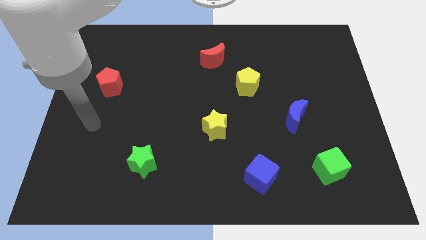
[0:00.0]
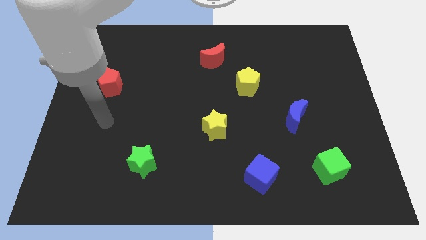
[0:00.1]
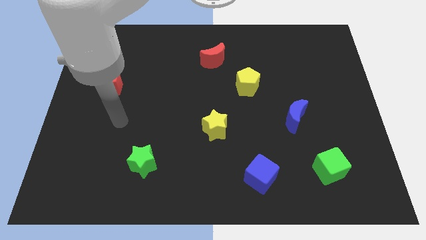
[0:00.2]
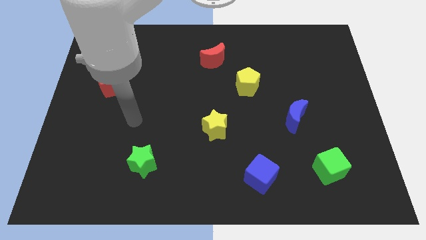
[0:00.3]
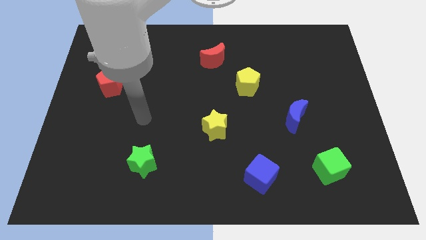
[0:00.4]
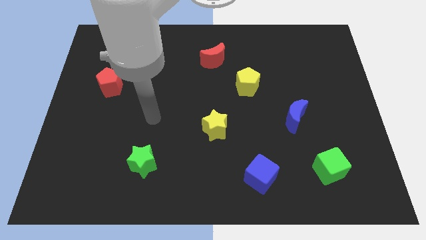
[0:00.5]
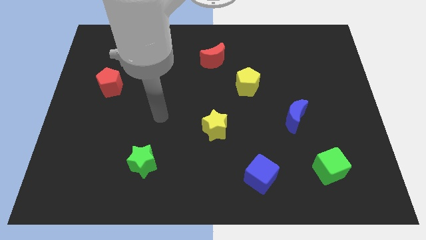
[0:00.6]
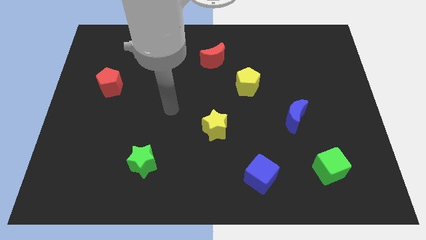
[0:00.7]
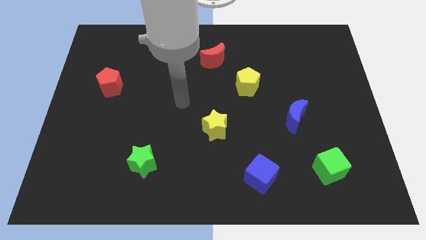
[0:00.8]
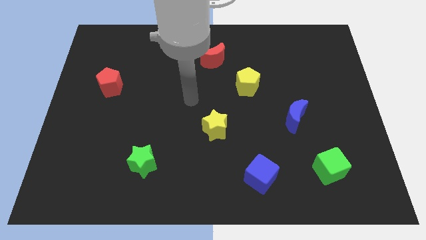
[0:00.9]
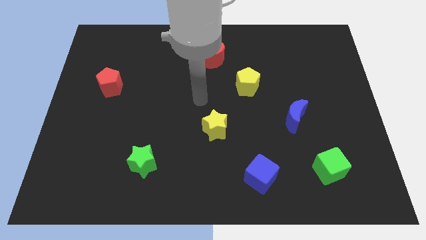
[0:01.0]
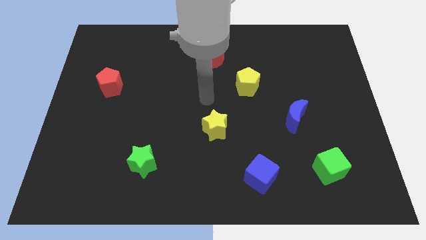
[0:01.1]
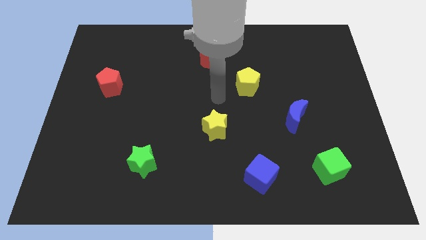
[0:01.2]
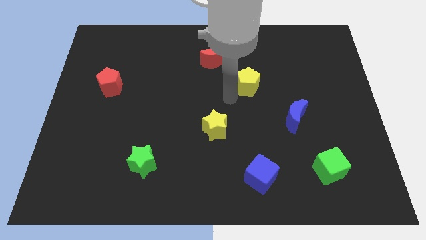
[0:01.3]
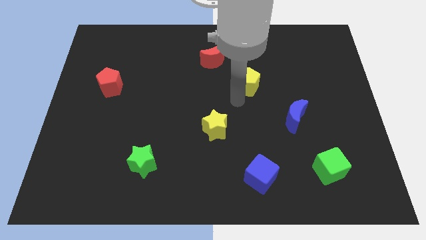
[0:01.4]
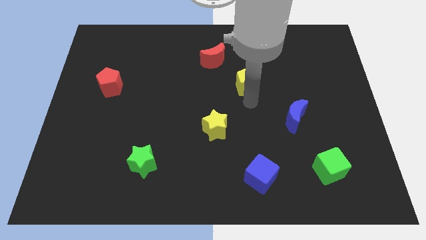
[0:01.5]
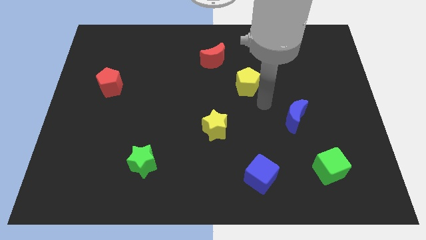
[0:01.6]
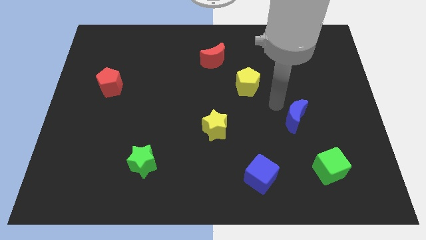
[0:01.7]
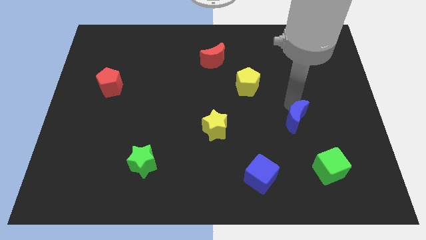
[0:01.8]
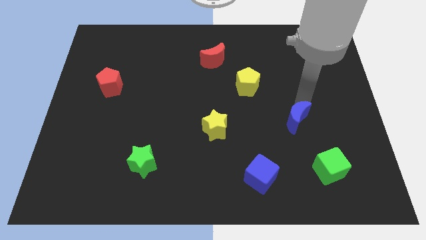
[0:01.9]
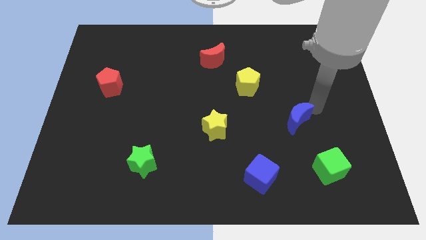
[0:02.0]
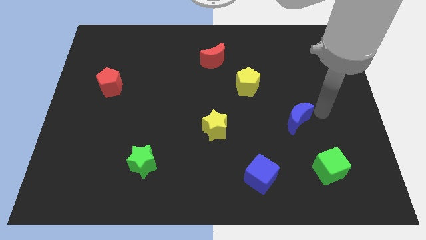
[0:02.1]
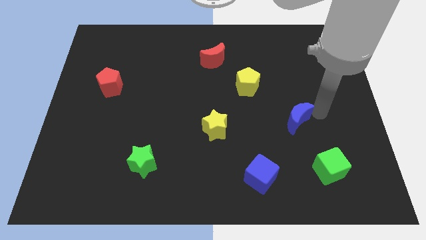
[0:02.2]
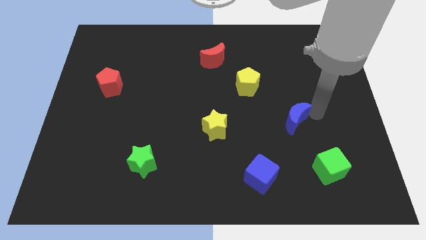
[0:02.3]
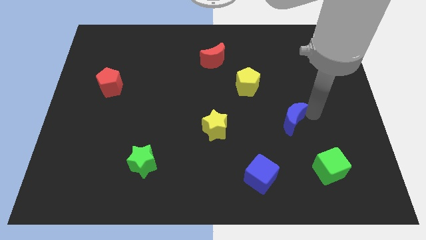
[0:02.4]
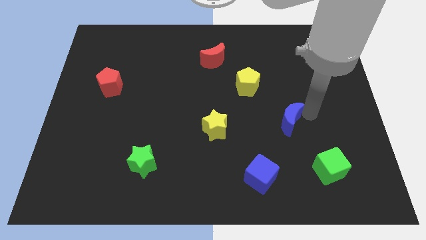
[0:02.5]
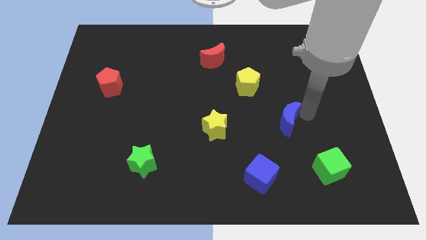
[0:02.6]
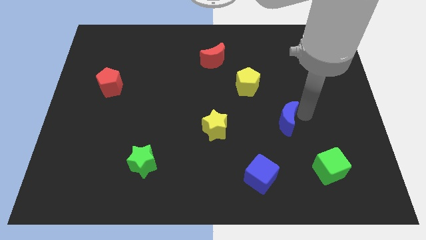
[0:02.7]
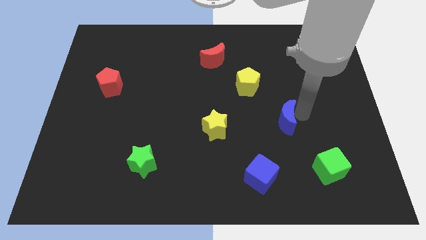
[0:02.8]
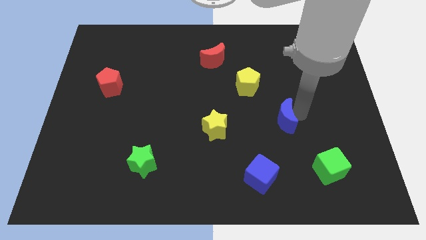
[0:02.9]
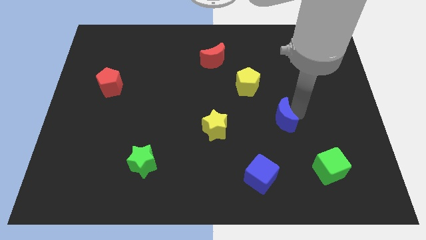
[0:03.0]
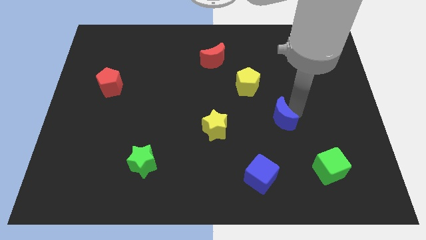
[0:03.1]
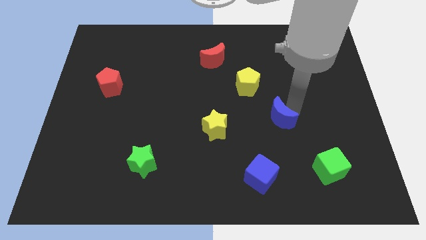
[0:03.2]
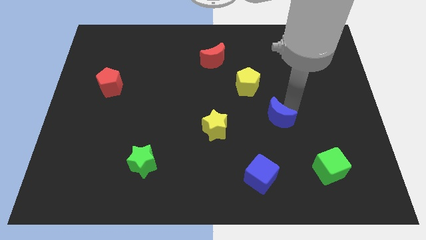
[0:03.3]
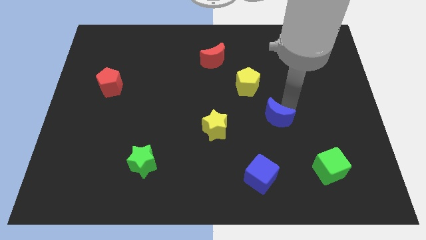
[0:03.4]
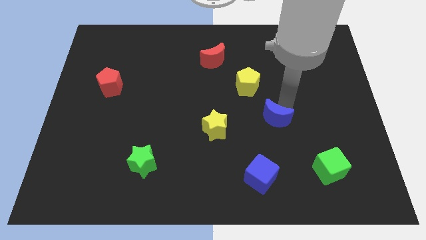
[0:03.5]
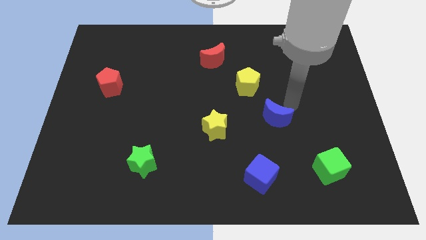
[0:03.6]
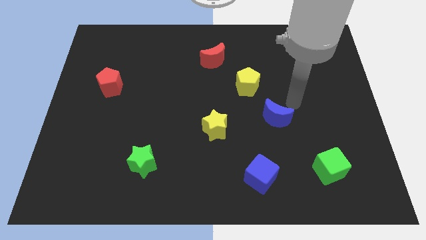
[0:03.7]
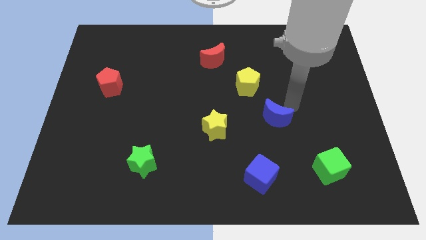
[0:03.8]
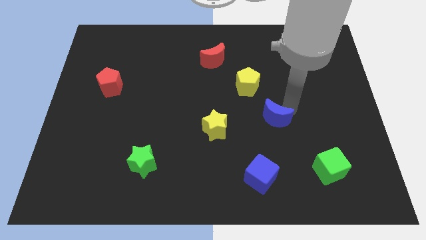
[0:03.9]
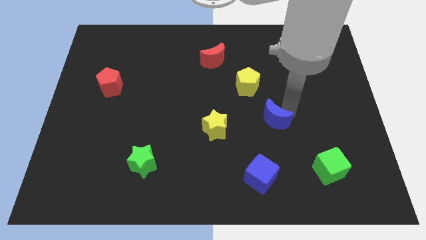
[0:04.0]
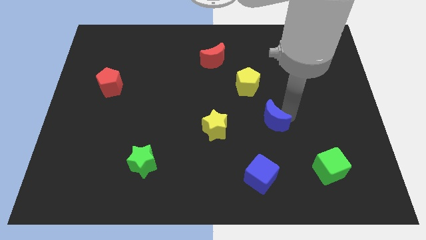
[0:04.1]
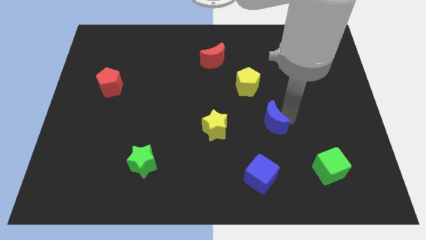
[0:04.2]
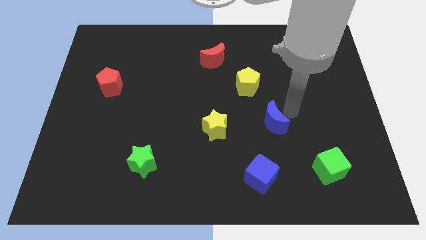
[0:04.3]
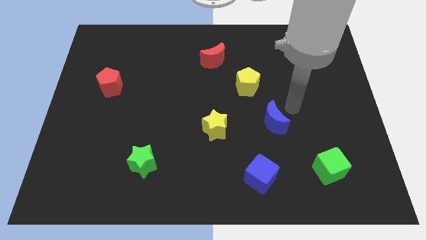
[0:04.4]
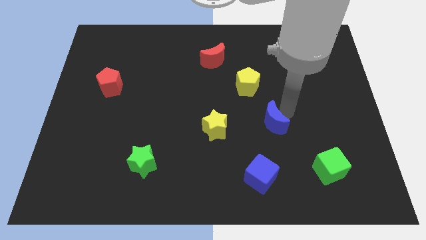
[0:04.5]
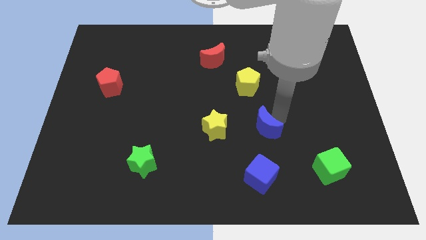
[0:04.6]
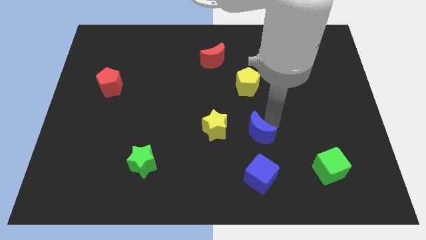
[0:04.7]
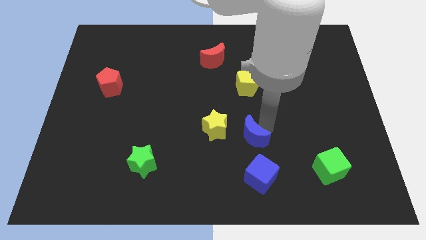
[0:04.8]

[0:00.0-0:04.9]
push the blue moon diagonally down and to the right of the yellow star

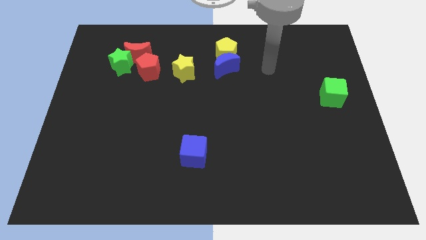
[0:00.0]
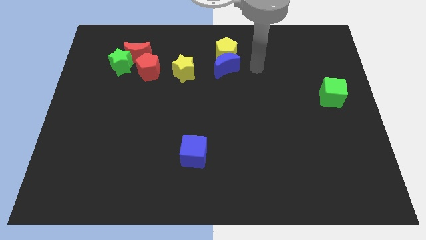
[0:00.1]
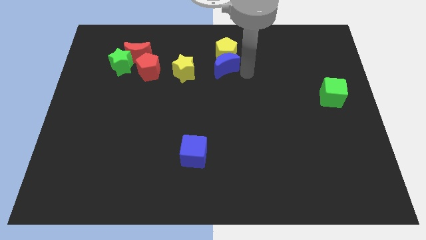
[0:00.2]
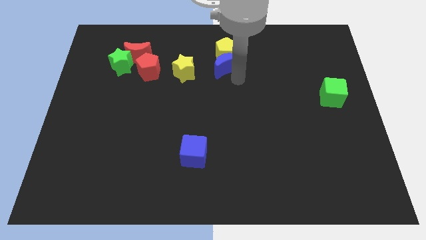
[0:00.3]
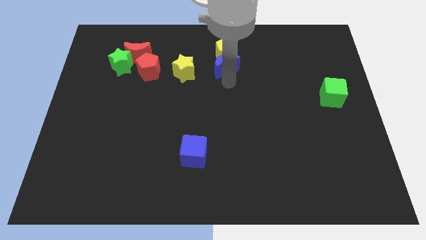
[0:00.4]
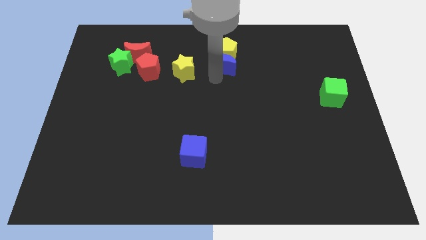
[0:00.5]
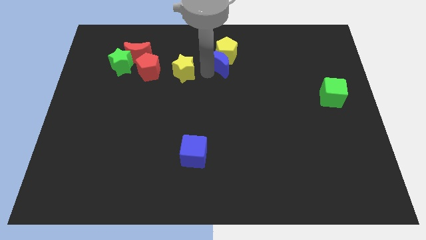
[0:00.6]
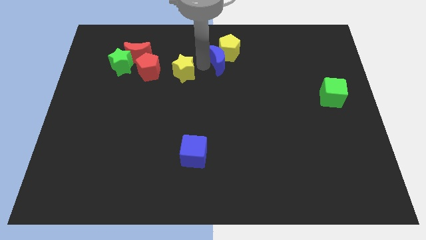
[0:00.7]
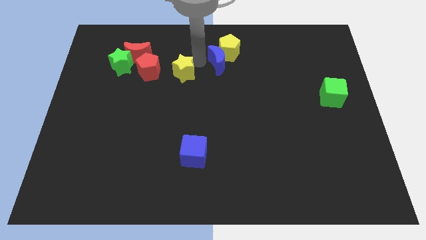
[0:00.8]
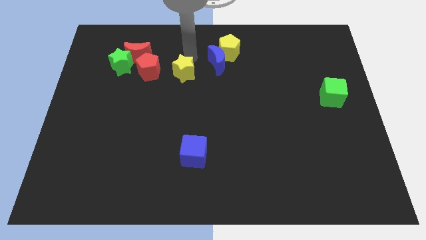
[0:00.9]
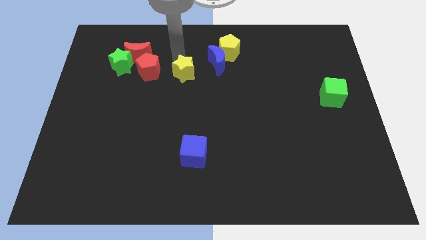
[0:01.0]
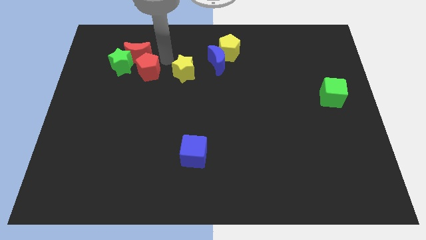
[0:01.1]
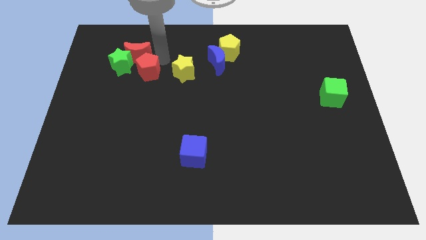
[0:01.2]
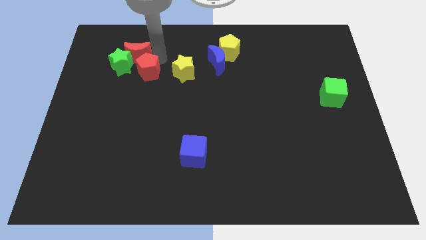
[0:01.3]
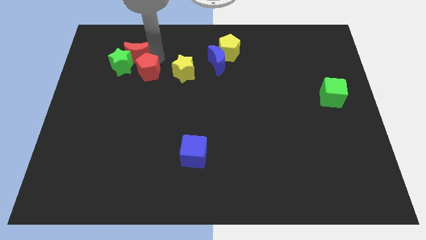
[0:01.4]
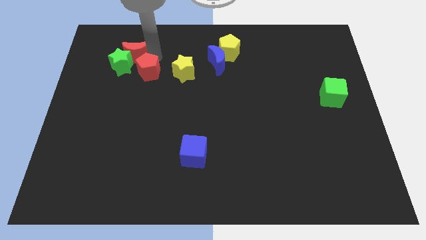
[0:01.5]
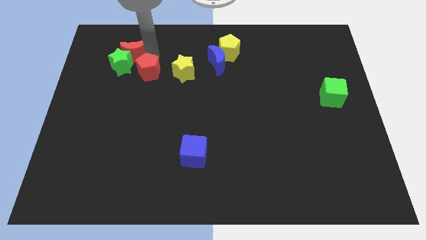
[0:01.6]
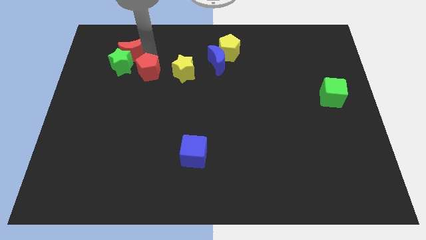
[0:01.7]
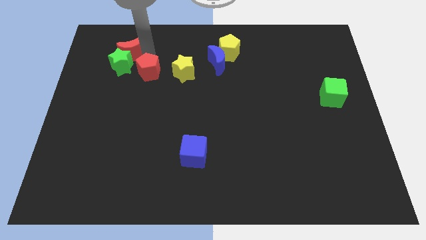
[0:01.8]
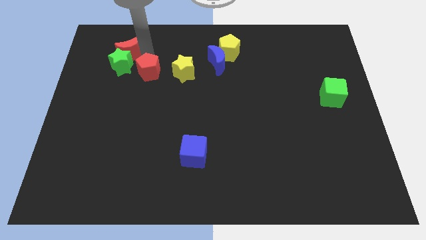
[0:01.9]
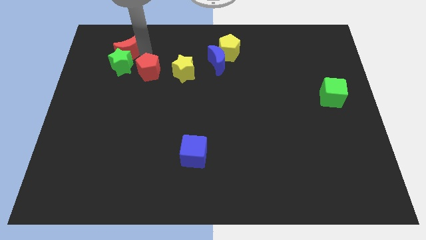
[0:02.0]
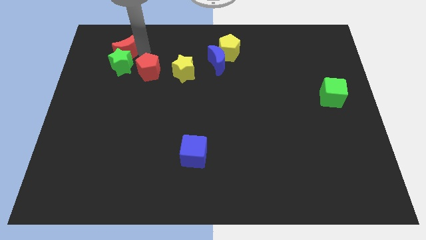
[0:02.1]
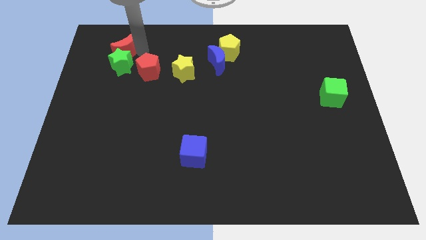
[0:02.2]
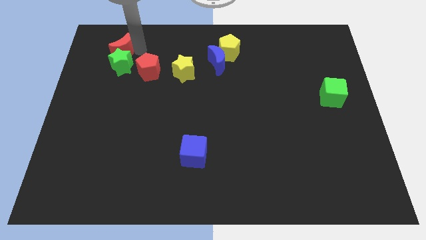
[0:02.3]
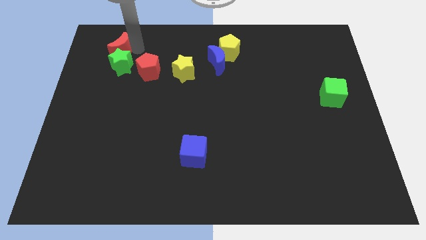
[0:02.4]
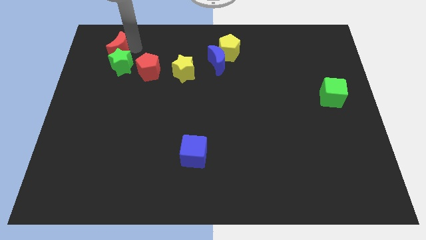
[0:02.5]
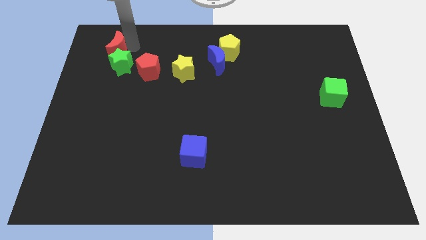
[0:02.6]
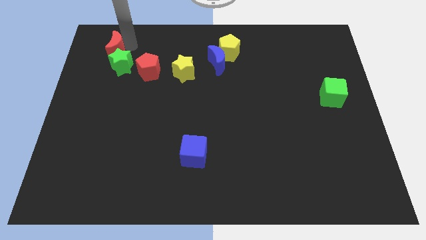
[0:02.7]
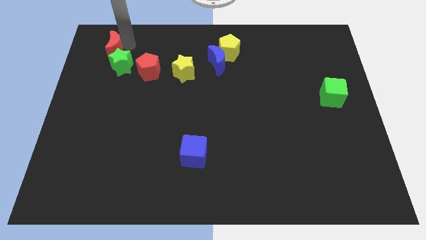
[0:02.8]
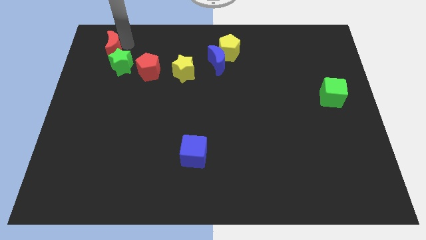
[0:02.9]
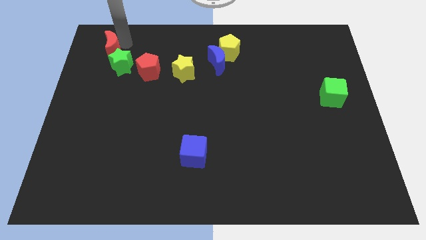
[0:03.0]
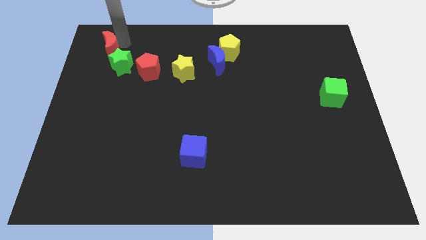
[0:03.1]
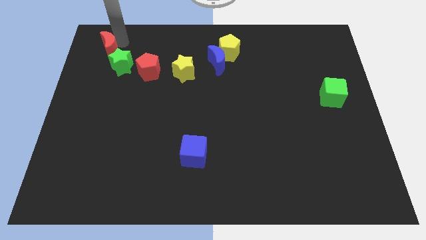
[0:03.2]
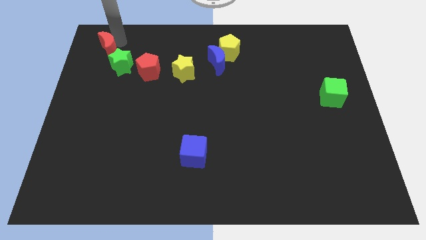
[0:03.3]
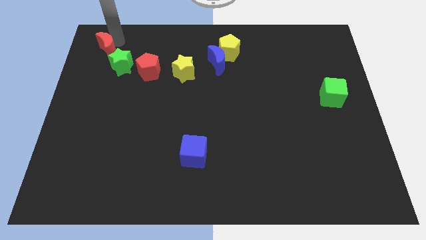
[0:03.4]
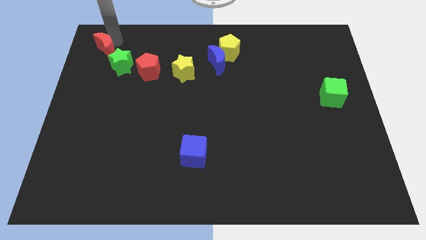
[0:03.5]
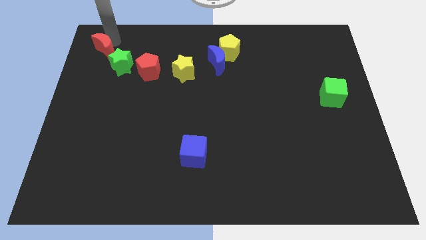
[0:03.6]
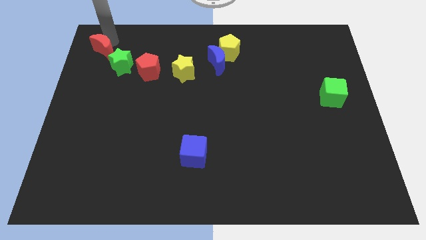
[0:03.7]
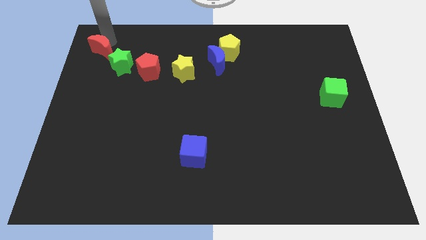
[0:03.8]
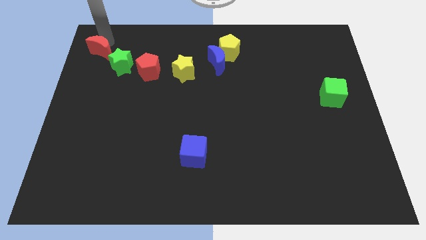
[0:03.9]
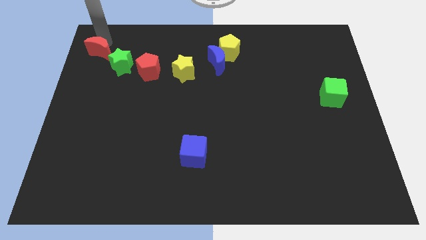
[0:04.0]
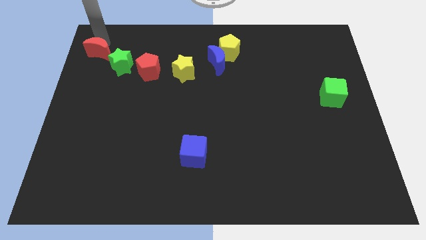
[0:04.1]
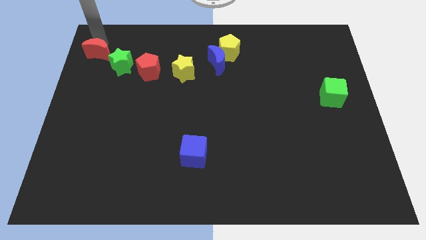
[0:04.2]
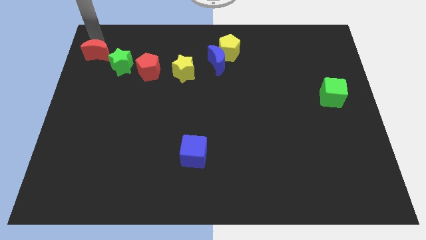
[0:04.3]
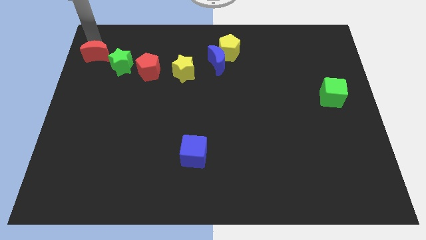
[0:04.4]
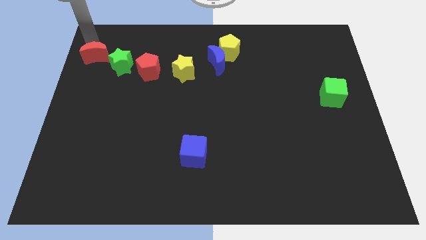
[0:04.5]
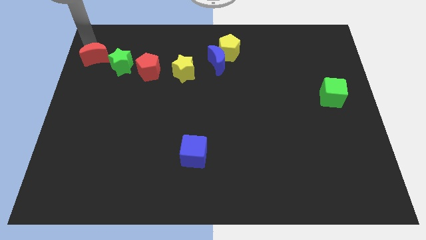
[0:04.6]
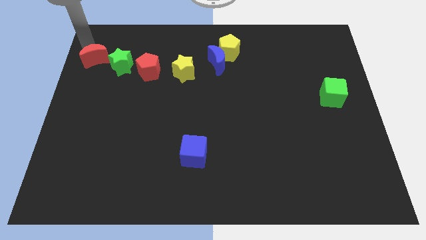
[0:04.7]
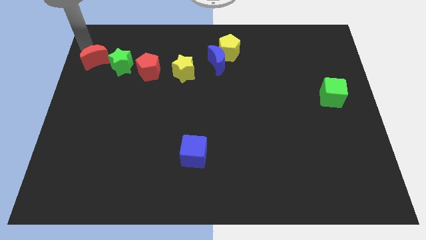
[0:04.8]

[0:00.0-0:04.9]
move the red moon to the left side of the red pentagon
